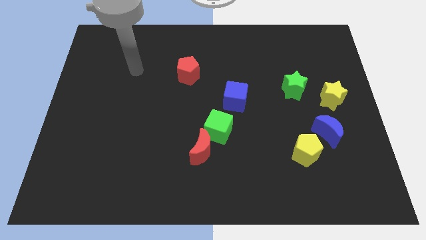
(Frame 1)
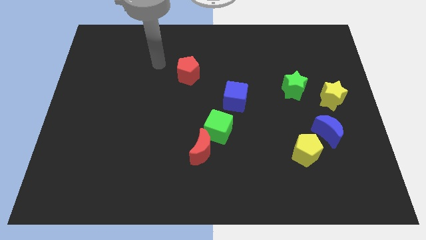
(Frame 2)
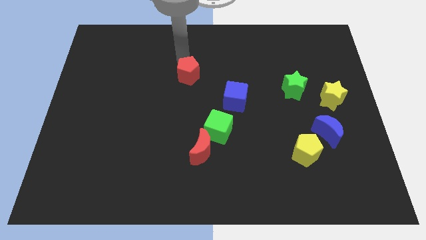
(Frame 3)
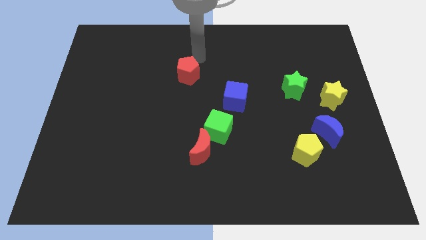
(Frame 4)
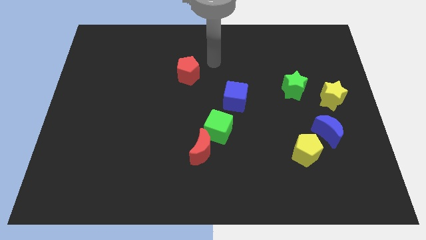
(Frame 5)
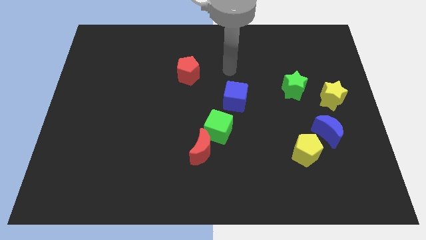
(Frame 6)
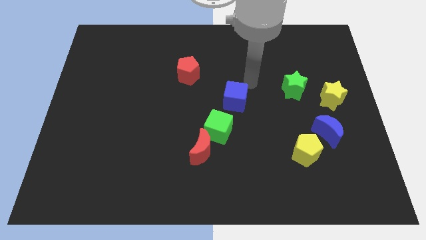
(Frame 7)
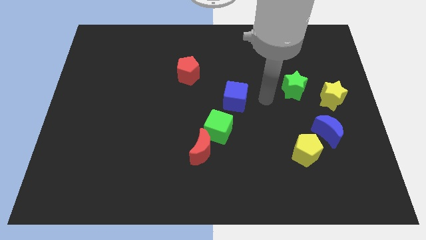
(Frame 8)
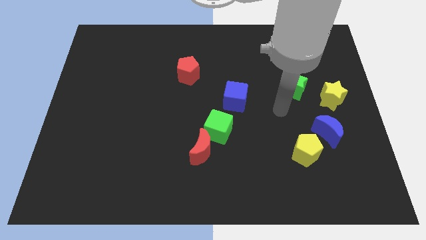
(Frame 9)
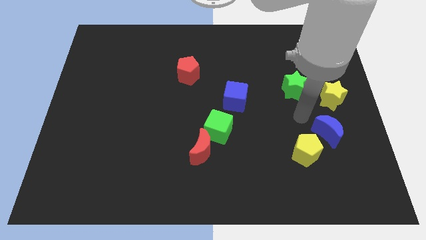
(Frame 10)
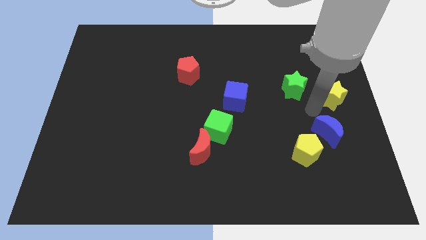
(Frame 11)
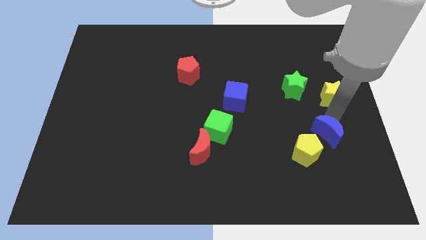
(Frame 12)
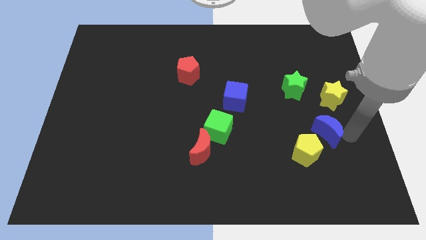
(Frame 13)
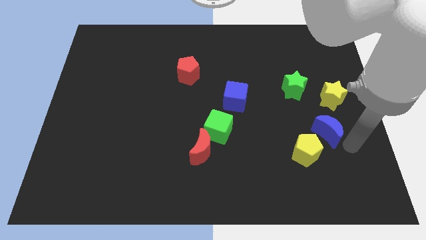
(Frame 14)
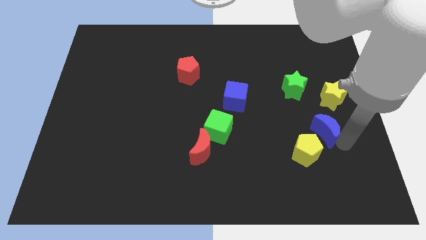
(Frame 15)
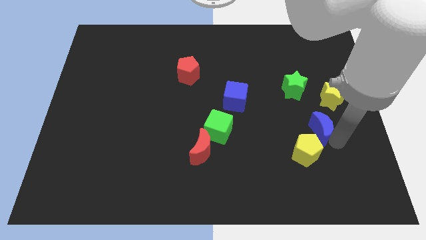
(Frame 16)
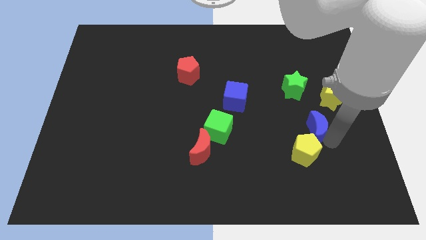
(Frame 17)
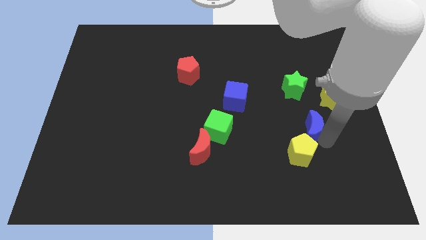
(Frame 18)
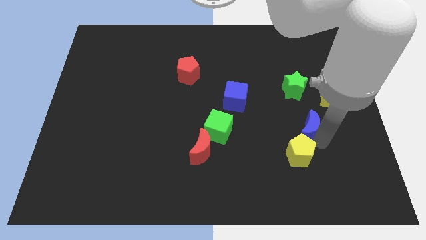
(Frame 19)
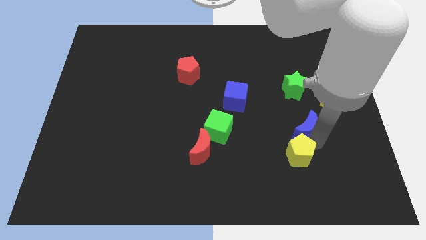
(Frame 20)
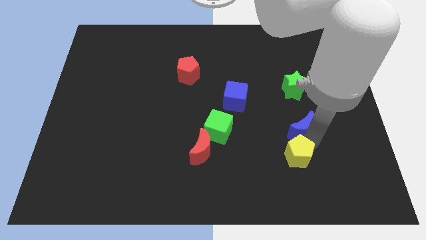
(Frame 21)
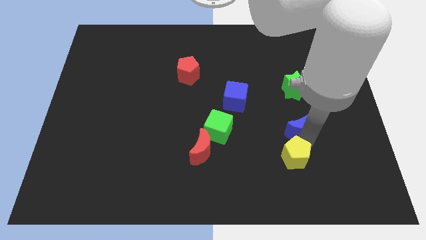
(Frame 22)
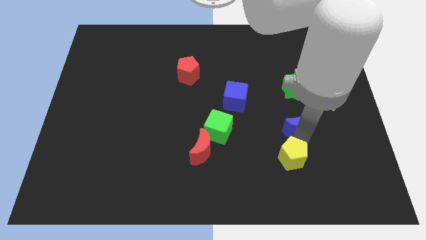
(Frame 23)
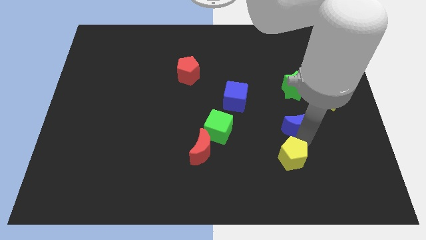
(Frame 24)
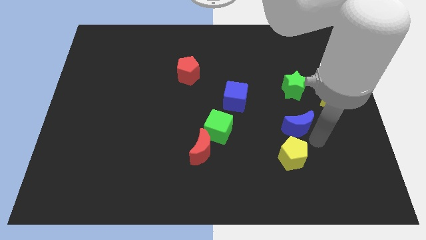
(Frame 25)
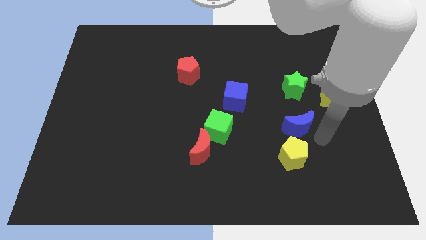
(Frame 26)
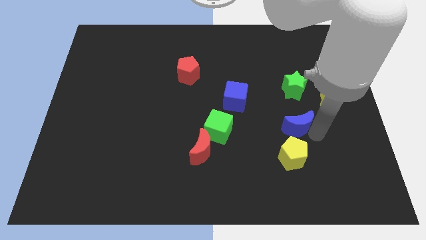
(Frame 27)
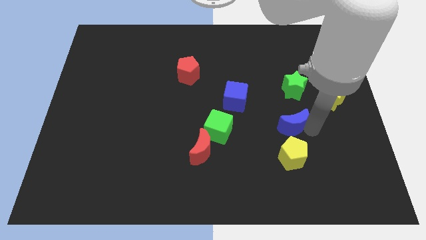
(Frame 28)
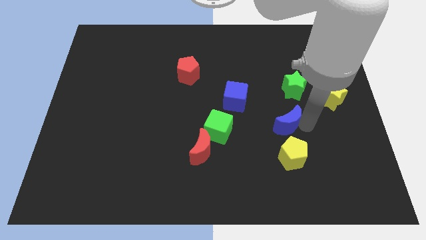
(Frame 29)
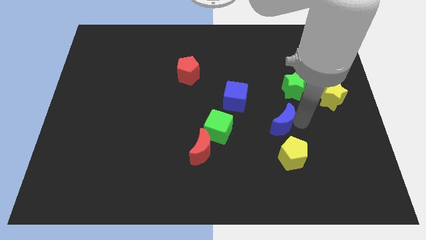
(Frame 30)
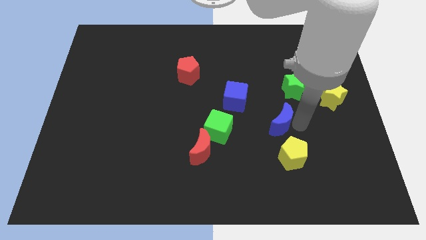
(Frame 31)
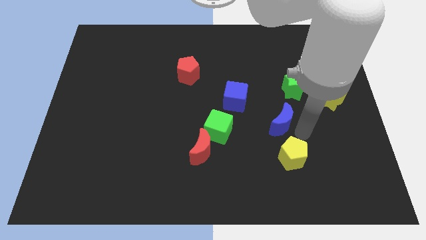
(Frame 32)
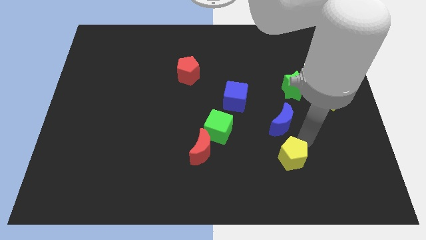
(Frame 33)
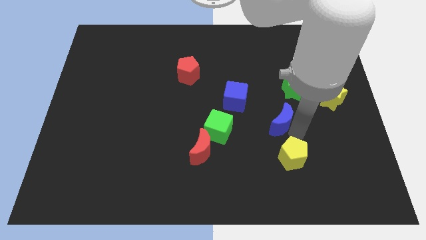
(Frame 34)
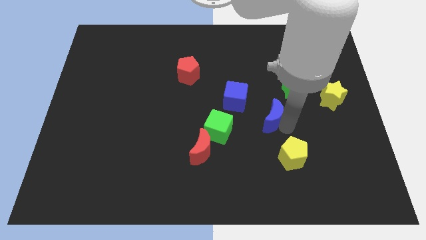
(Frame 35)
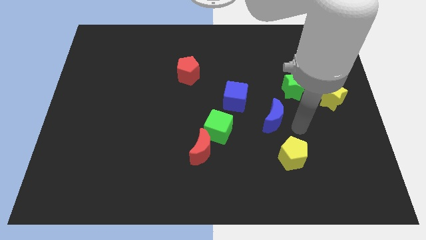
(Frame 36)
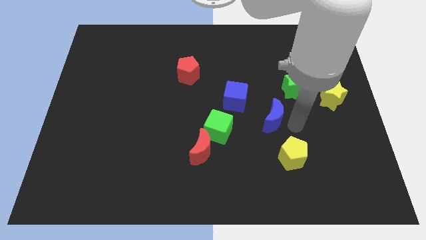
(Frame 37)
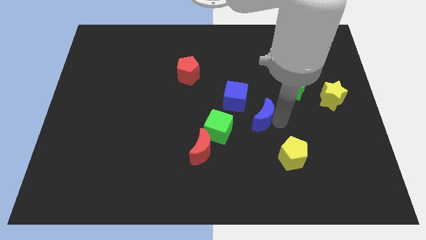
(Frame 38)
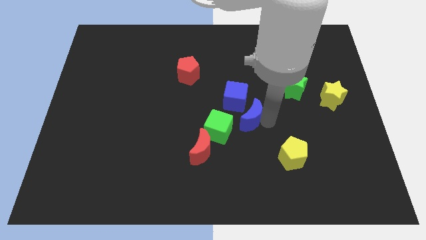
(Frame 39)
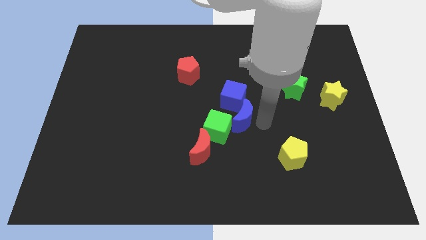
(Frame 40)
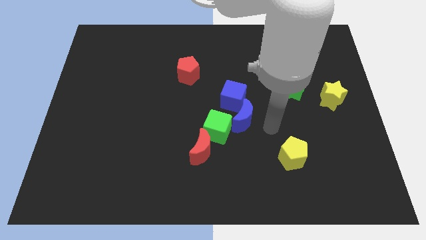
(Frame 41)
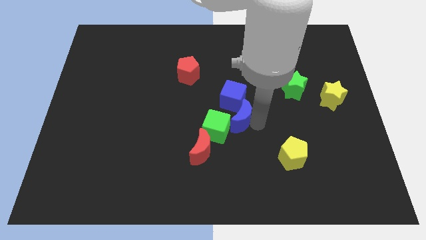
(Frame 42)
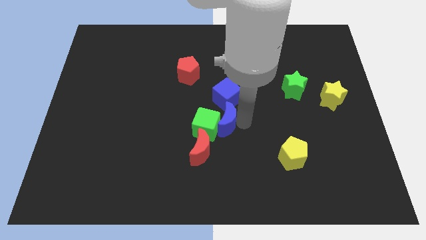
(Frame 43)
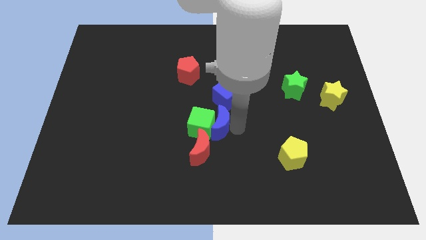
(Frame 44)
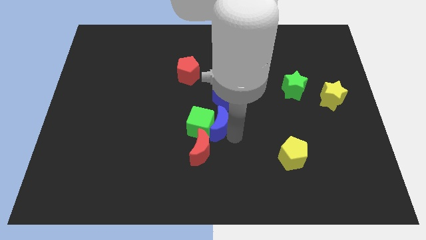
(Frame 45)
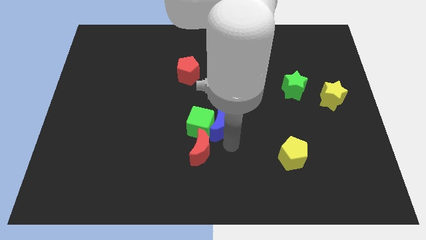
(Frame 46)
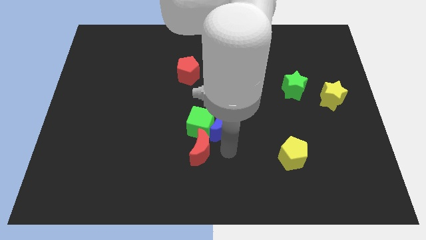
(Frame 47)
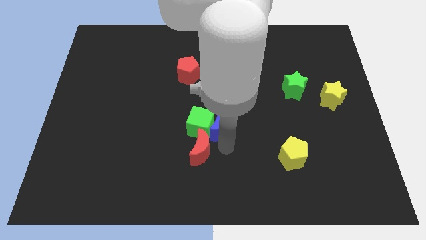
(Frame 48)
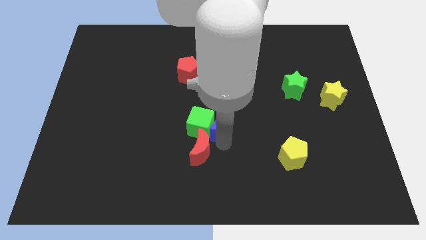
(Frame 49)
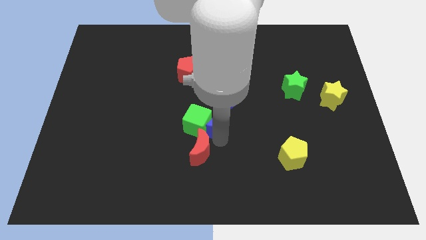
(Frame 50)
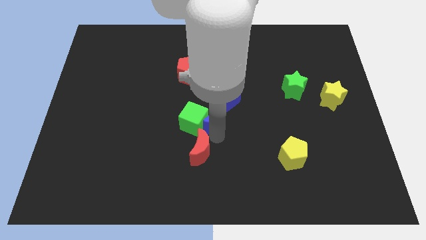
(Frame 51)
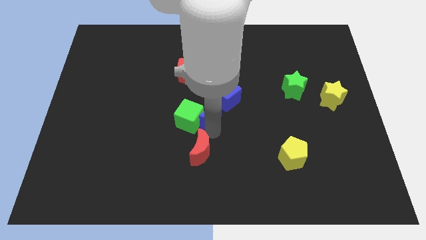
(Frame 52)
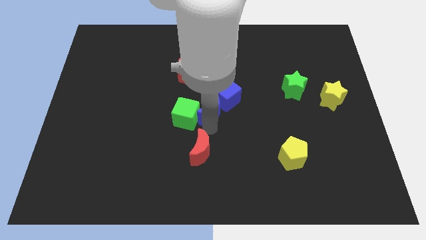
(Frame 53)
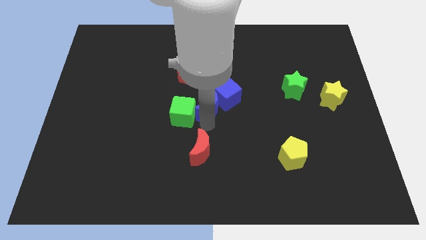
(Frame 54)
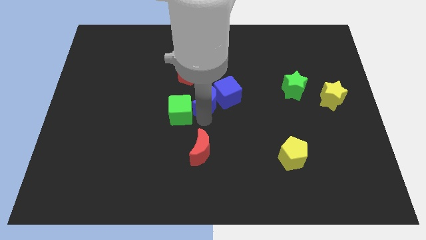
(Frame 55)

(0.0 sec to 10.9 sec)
move the blue moon to the bottom right of the red pentagon

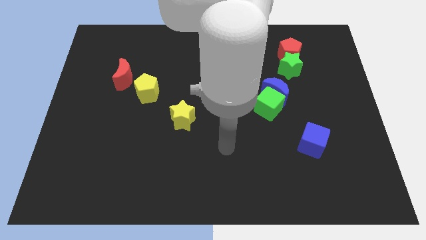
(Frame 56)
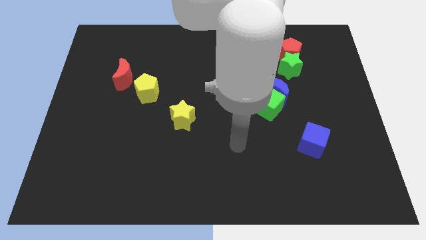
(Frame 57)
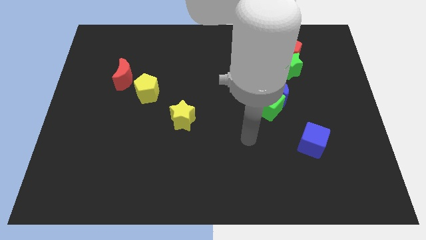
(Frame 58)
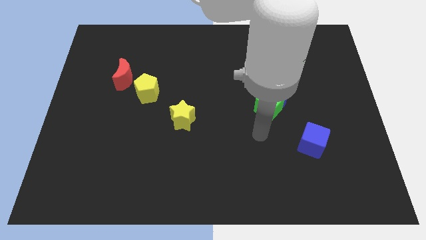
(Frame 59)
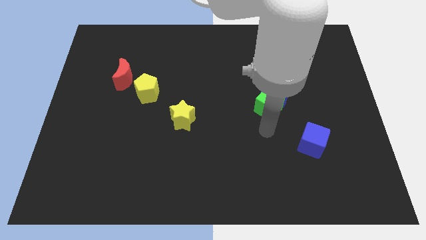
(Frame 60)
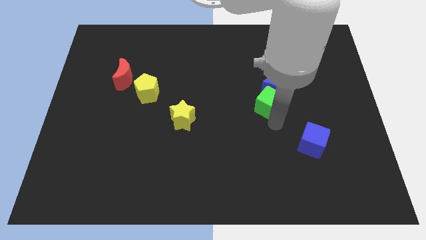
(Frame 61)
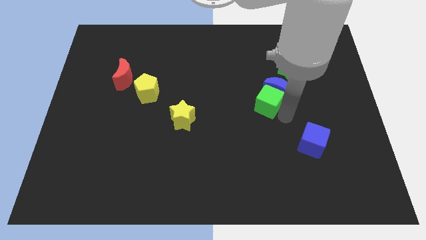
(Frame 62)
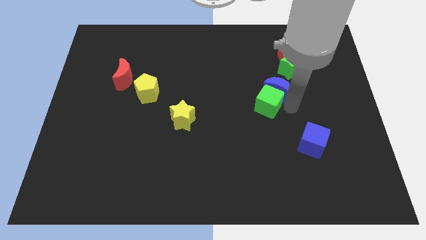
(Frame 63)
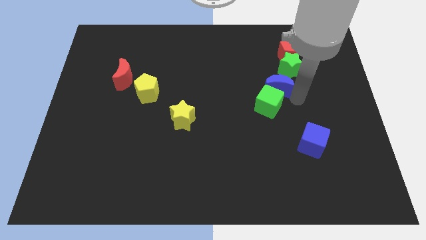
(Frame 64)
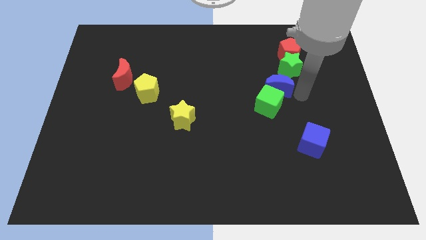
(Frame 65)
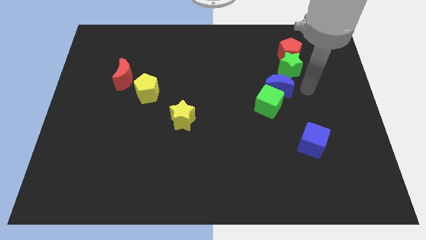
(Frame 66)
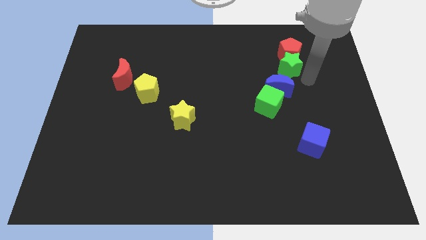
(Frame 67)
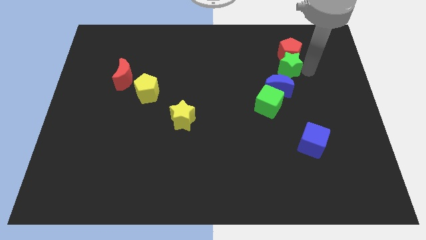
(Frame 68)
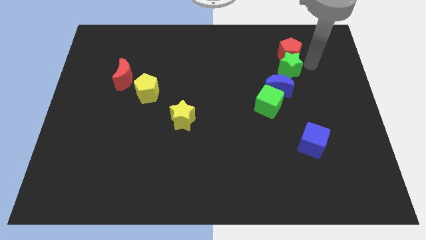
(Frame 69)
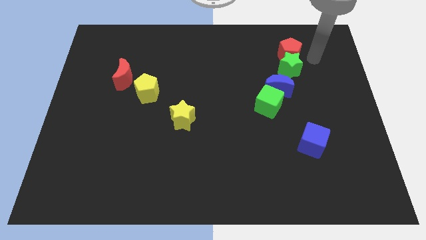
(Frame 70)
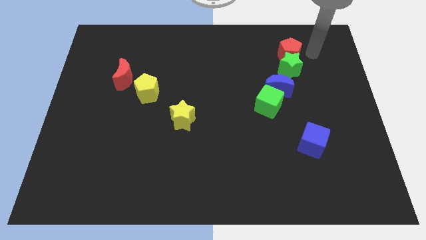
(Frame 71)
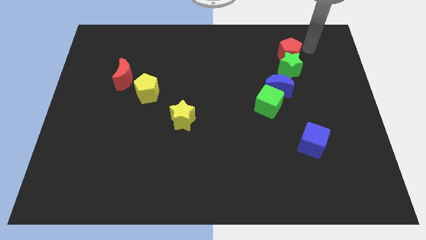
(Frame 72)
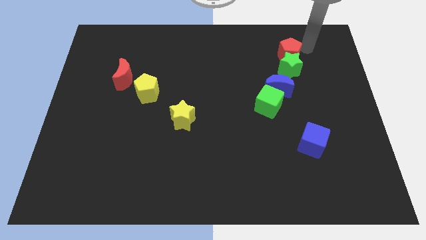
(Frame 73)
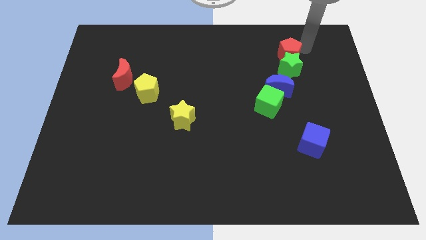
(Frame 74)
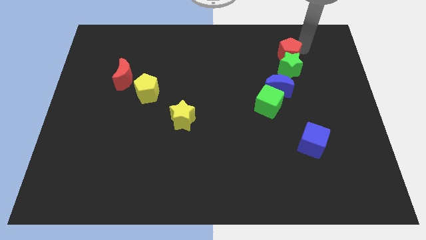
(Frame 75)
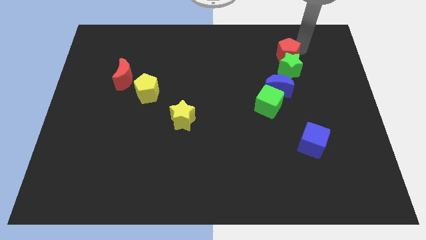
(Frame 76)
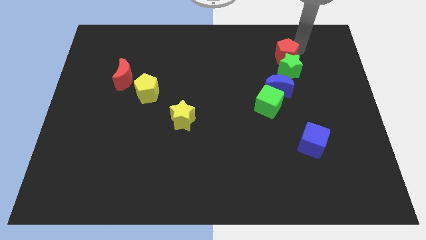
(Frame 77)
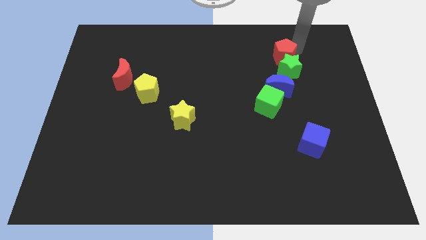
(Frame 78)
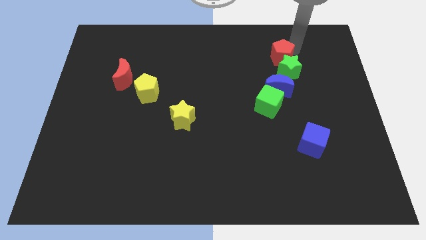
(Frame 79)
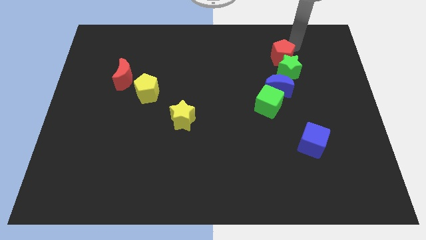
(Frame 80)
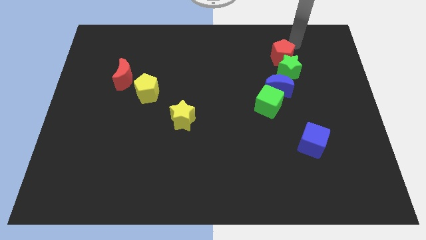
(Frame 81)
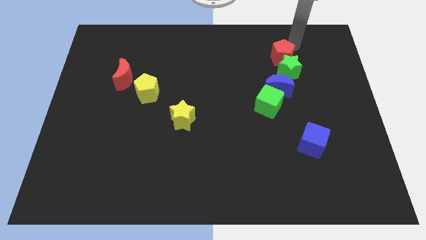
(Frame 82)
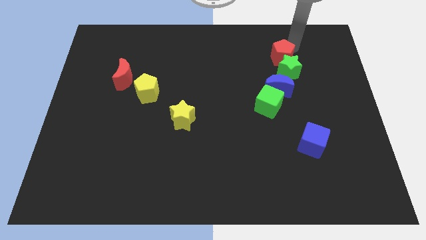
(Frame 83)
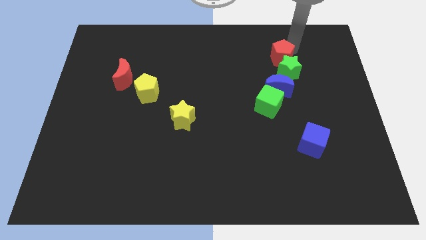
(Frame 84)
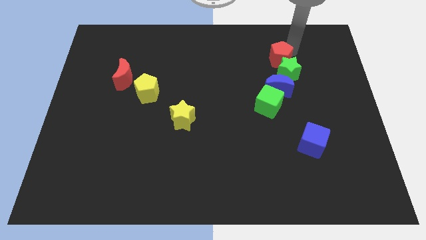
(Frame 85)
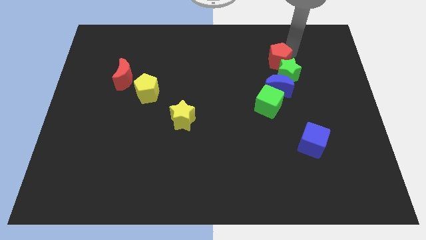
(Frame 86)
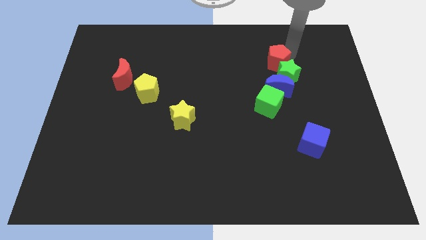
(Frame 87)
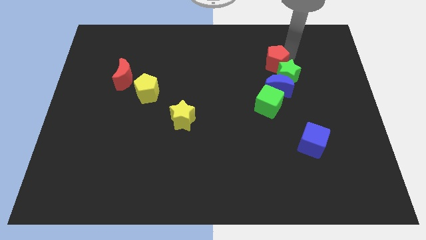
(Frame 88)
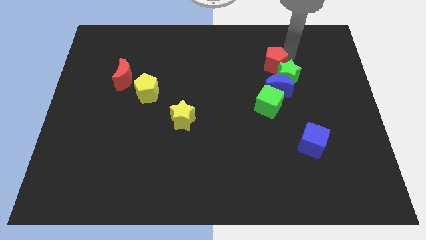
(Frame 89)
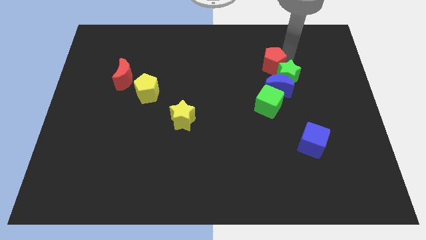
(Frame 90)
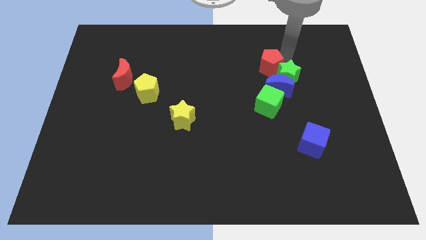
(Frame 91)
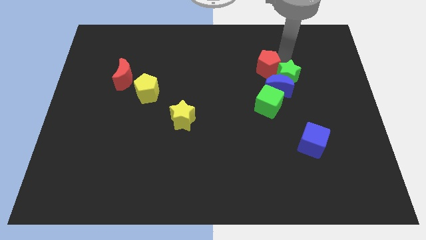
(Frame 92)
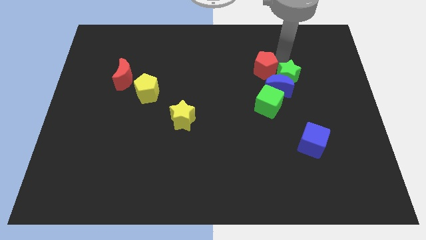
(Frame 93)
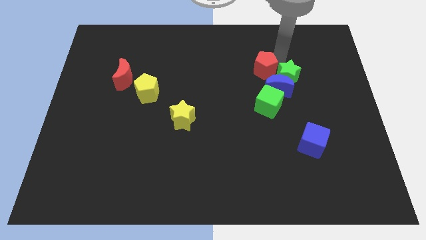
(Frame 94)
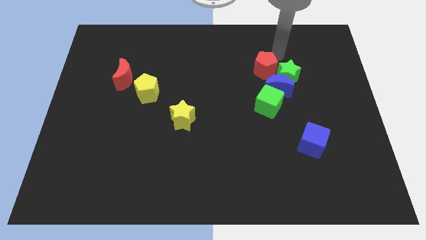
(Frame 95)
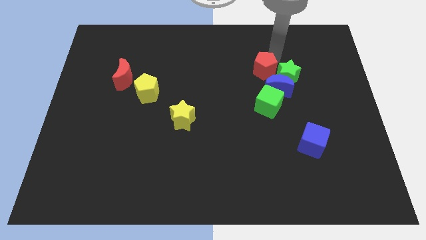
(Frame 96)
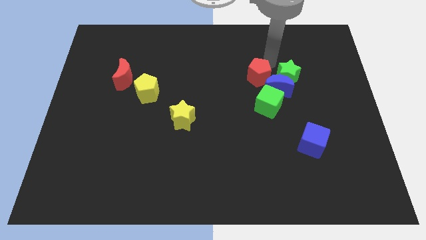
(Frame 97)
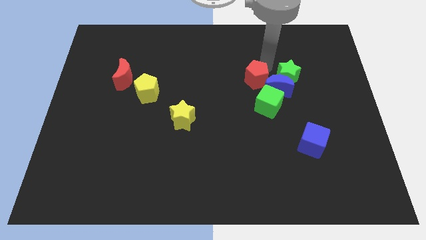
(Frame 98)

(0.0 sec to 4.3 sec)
put the red pentagon to the top left of the green cube
